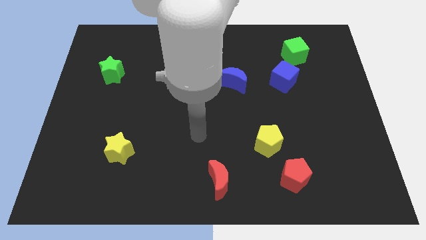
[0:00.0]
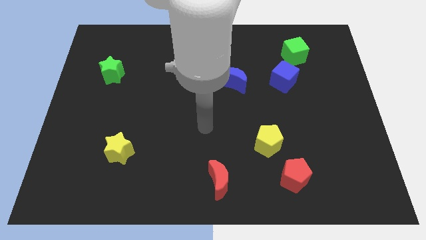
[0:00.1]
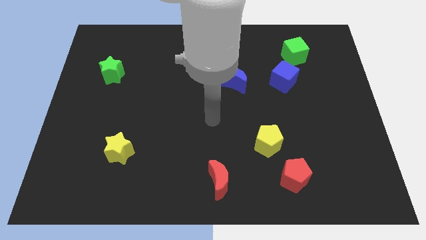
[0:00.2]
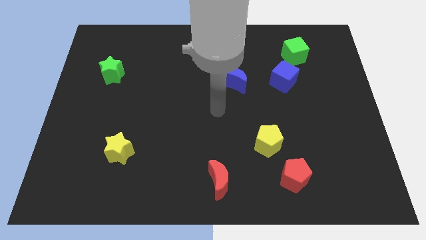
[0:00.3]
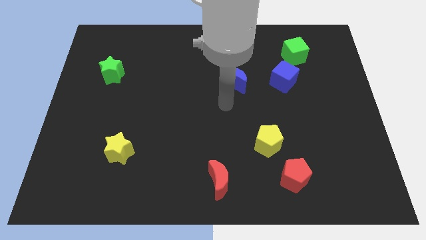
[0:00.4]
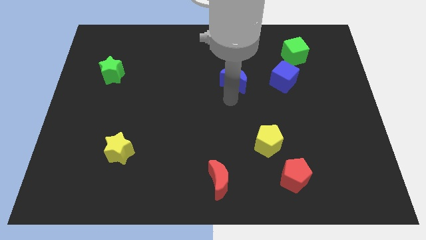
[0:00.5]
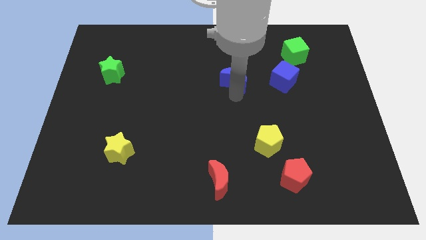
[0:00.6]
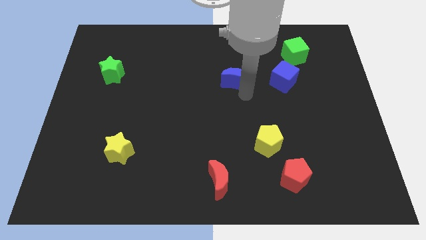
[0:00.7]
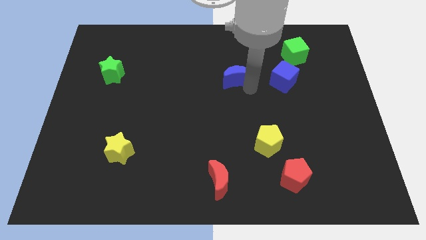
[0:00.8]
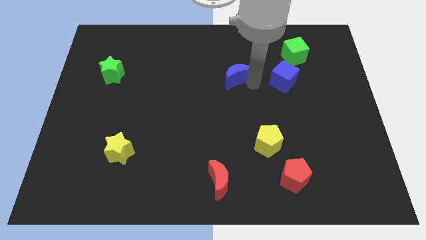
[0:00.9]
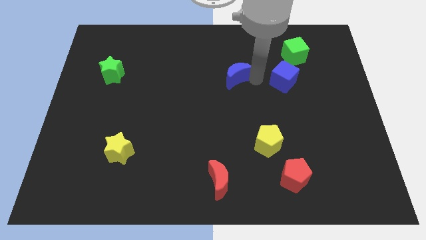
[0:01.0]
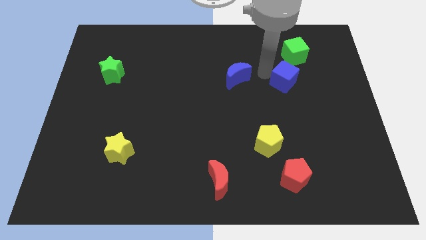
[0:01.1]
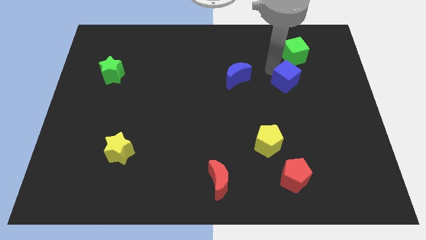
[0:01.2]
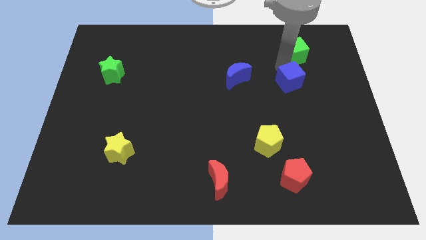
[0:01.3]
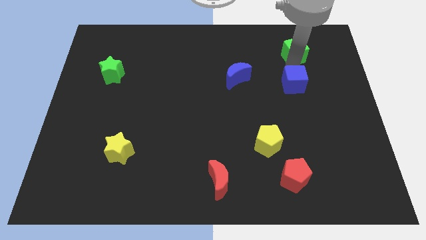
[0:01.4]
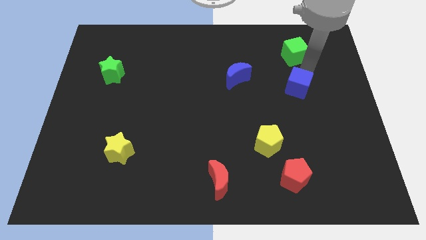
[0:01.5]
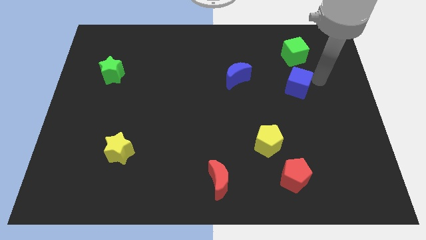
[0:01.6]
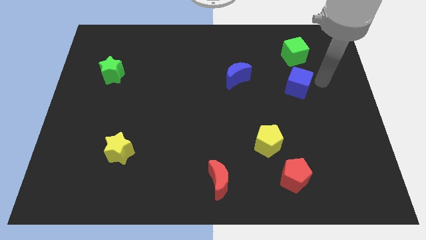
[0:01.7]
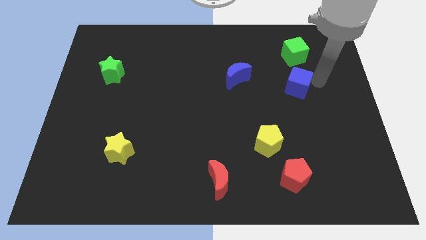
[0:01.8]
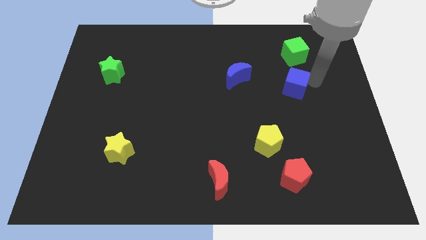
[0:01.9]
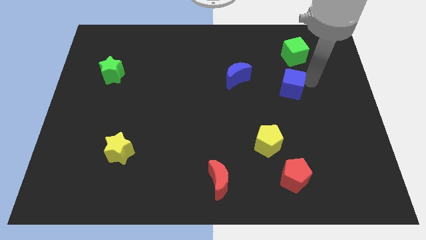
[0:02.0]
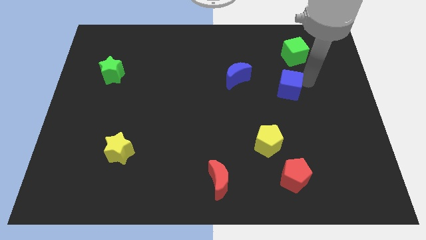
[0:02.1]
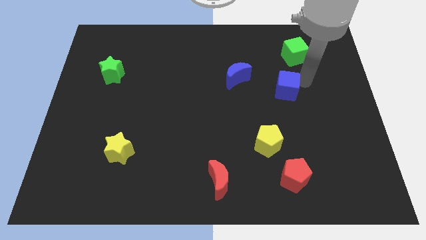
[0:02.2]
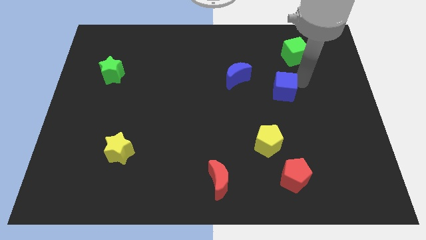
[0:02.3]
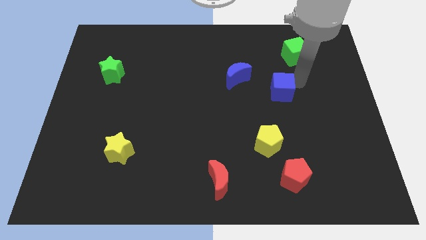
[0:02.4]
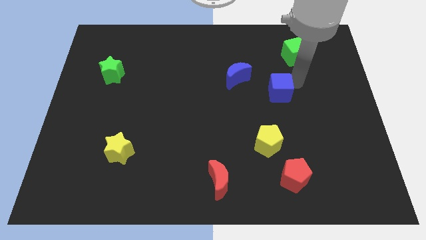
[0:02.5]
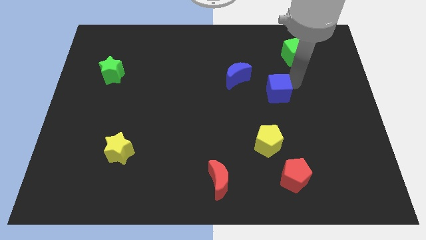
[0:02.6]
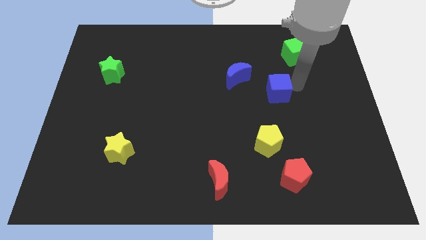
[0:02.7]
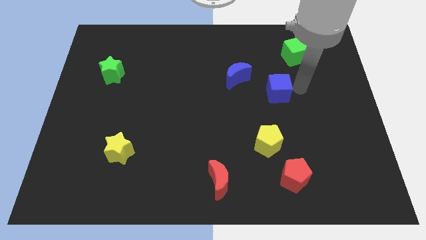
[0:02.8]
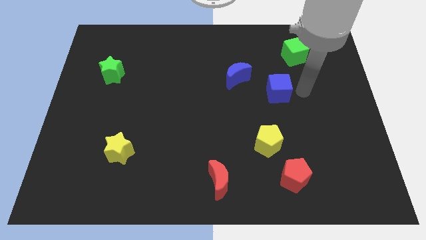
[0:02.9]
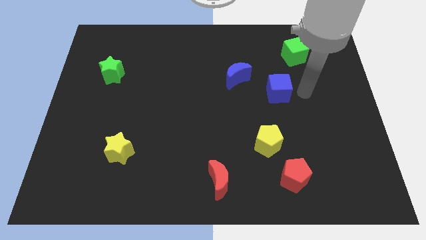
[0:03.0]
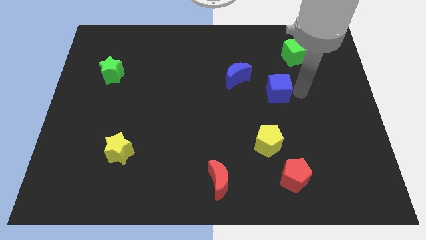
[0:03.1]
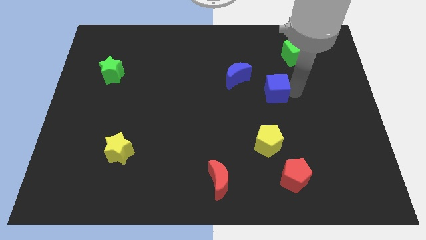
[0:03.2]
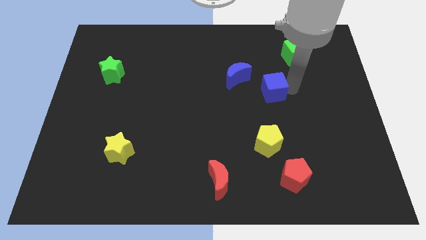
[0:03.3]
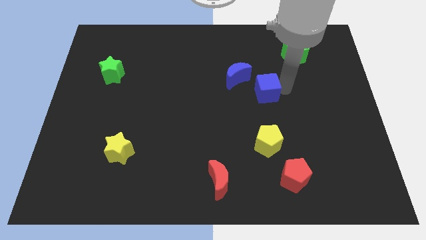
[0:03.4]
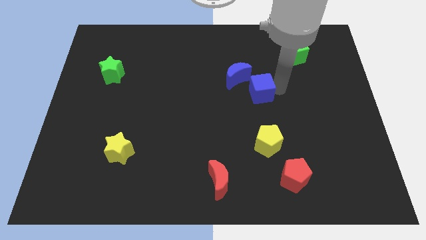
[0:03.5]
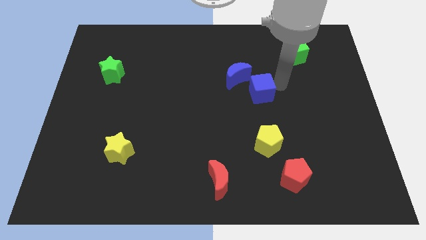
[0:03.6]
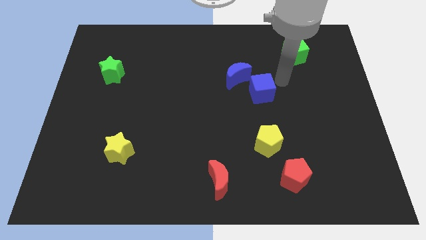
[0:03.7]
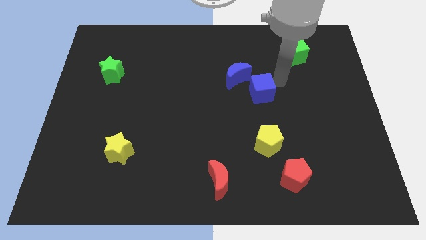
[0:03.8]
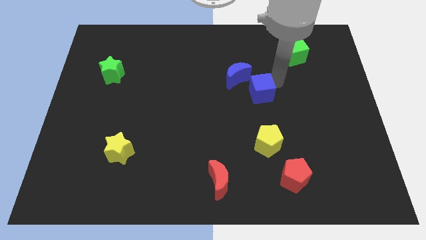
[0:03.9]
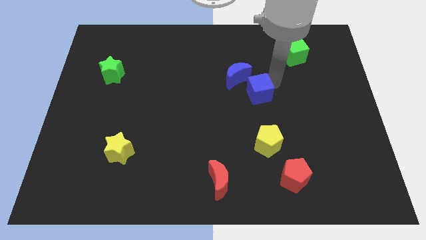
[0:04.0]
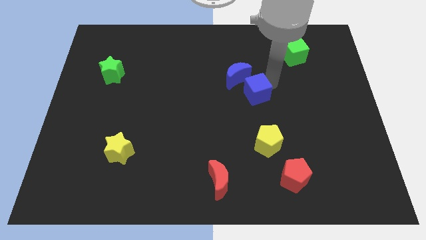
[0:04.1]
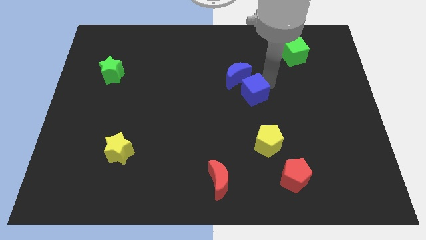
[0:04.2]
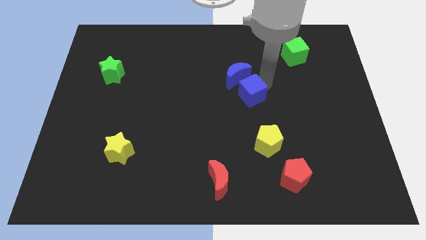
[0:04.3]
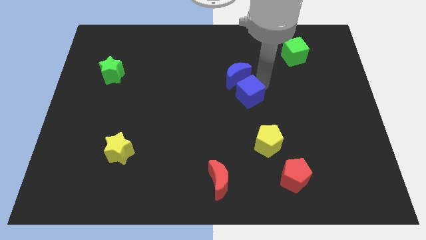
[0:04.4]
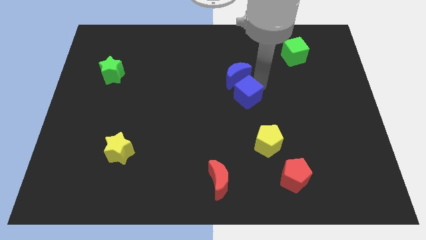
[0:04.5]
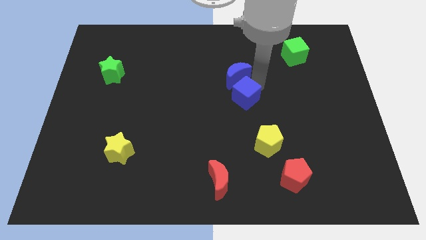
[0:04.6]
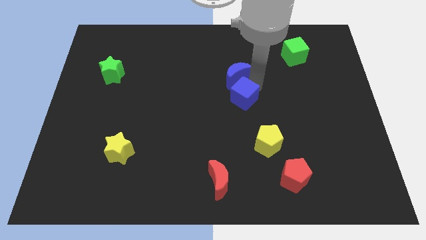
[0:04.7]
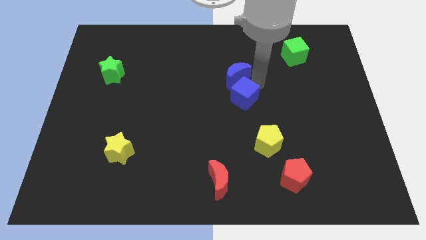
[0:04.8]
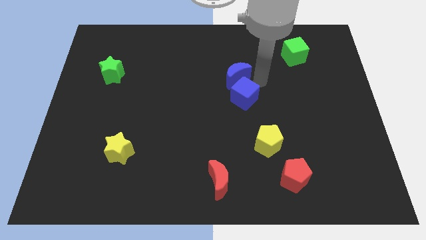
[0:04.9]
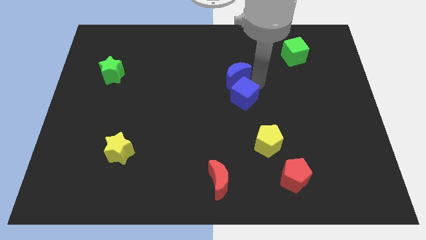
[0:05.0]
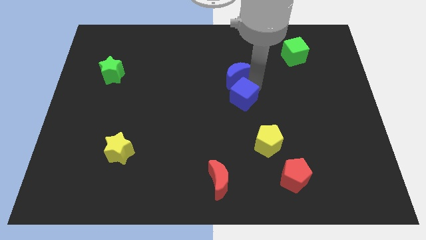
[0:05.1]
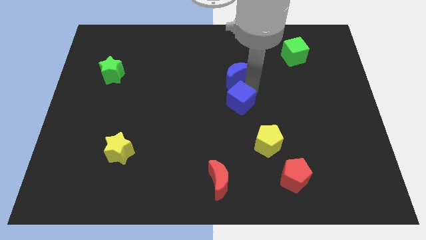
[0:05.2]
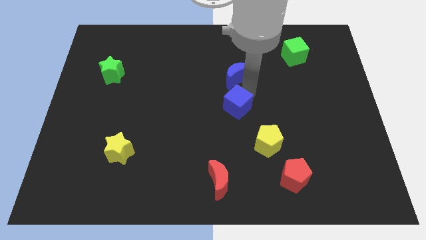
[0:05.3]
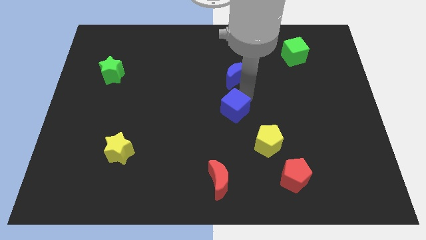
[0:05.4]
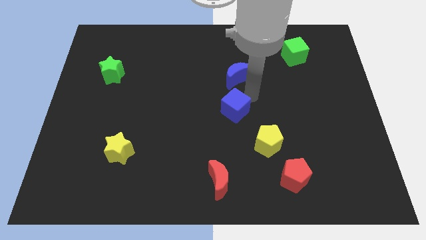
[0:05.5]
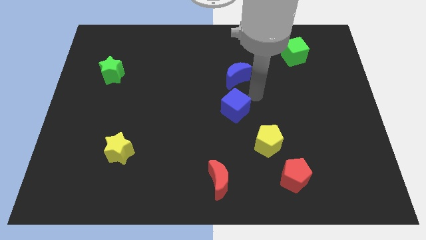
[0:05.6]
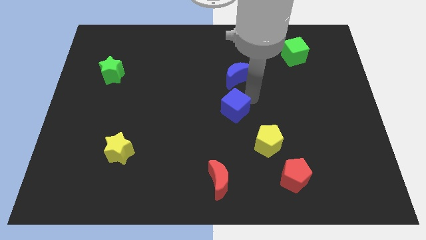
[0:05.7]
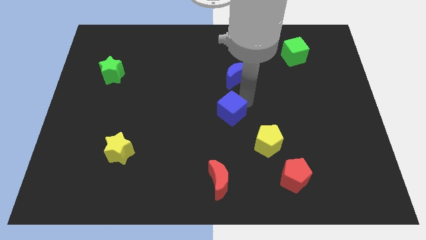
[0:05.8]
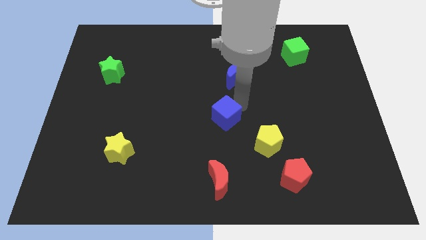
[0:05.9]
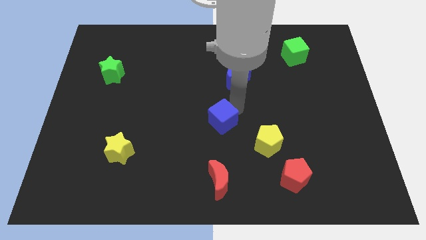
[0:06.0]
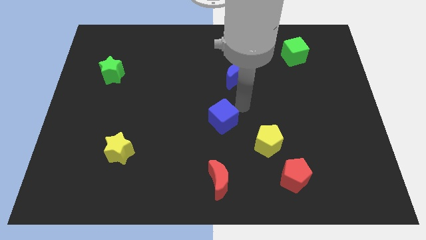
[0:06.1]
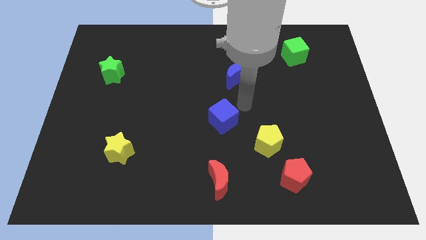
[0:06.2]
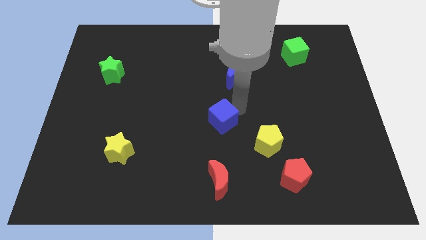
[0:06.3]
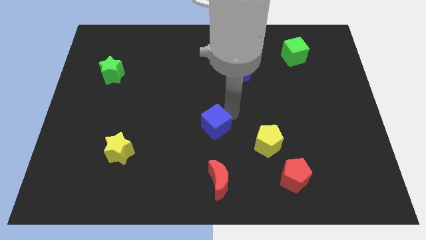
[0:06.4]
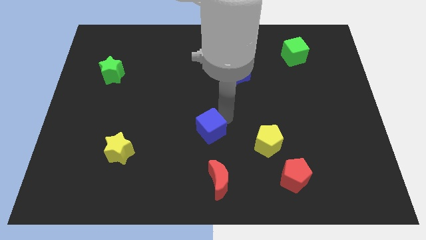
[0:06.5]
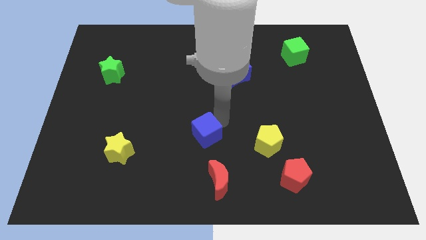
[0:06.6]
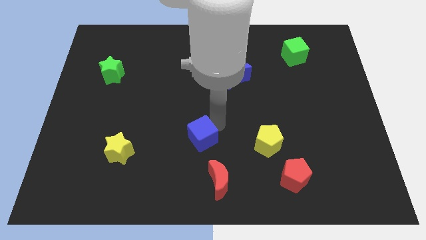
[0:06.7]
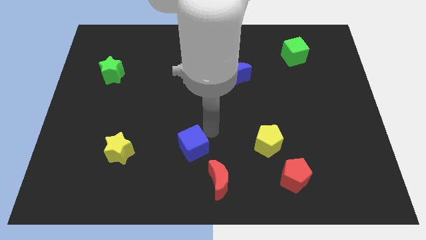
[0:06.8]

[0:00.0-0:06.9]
move the blue cube just right of the yellow star
